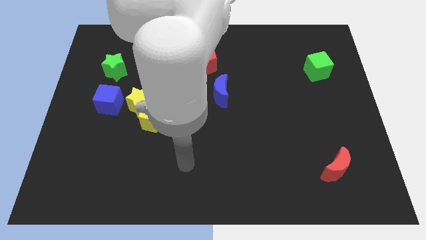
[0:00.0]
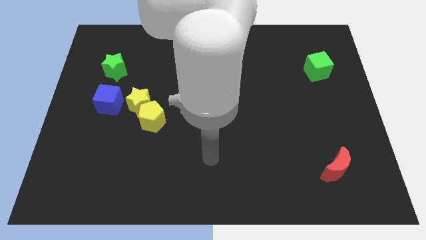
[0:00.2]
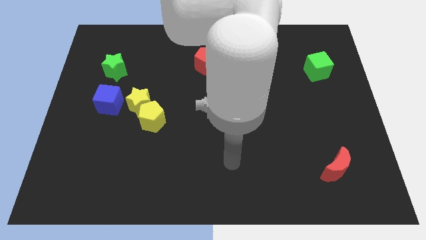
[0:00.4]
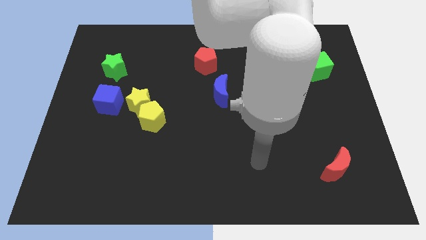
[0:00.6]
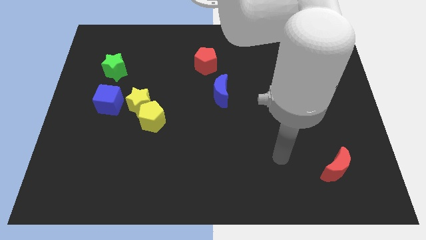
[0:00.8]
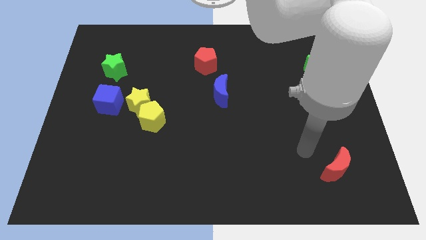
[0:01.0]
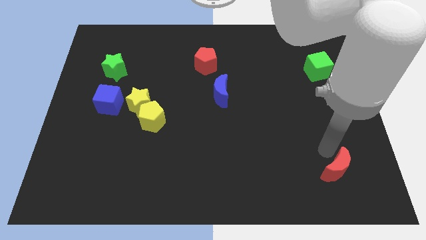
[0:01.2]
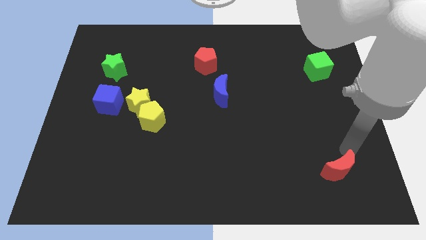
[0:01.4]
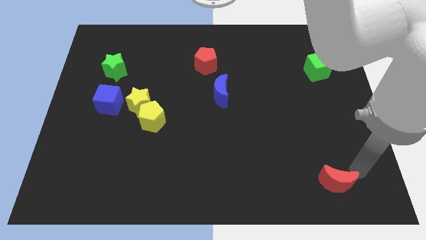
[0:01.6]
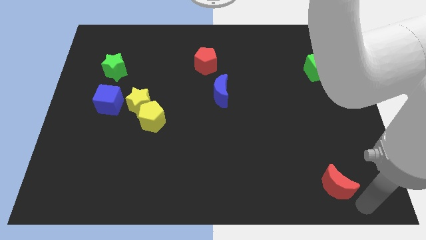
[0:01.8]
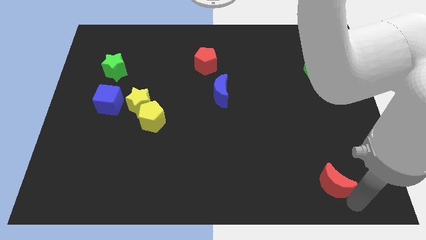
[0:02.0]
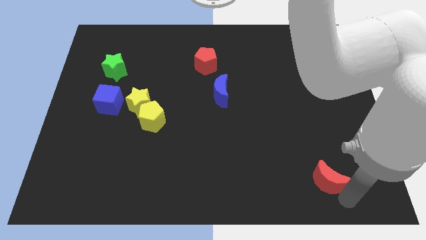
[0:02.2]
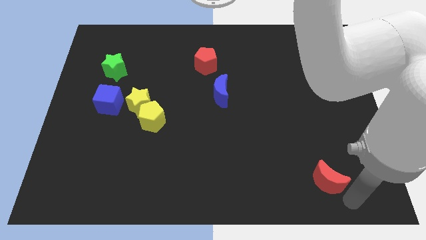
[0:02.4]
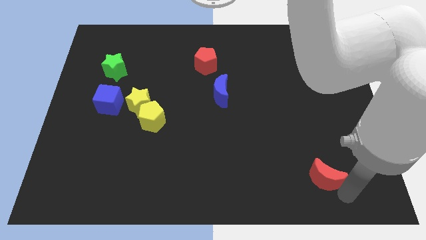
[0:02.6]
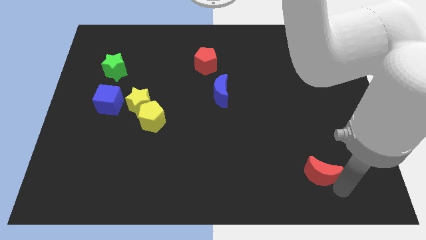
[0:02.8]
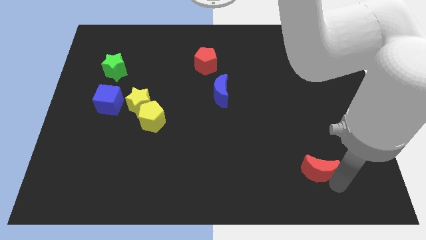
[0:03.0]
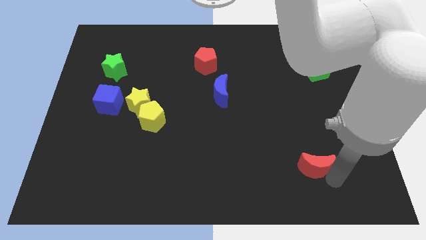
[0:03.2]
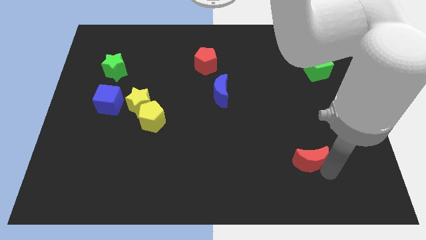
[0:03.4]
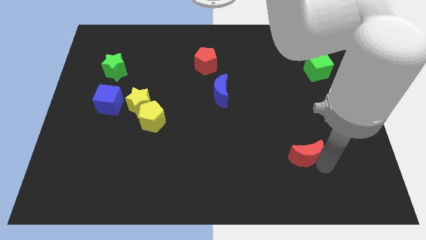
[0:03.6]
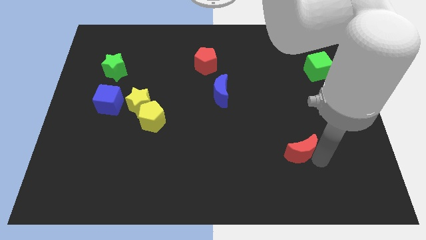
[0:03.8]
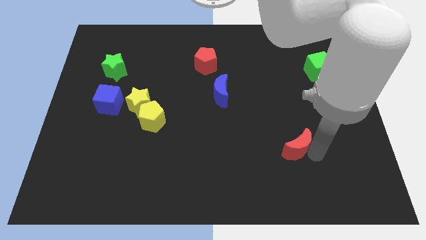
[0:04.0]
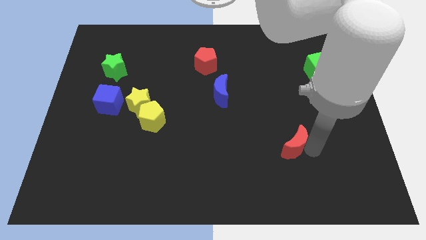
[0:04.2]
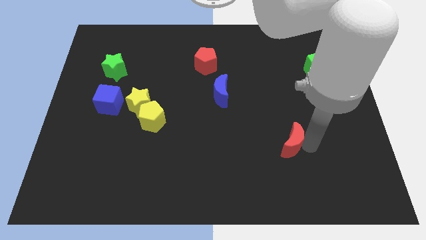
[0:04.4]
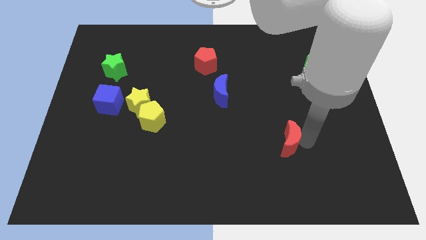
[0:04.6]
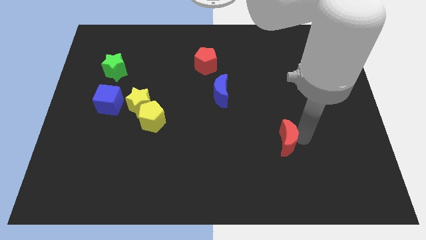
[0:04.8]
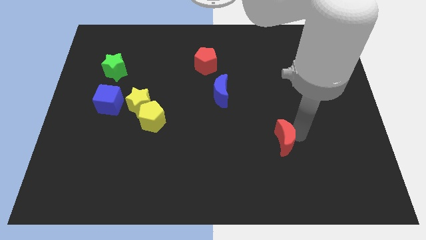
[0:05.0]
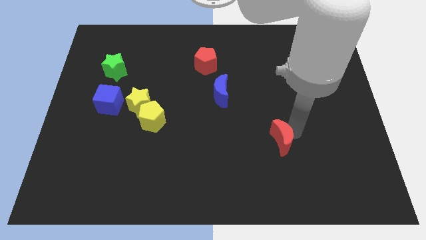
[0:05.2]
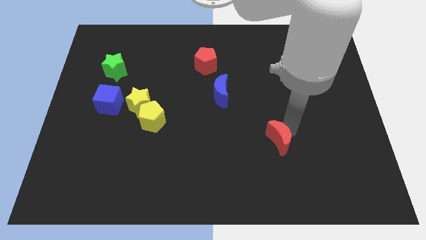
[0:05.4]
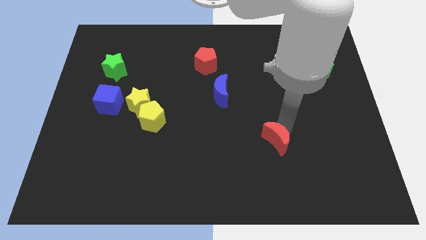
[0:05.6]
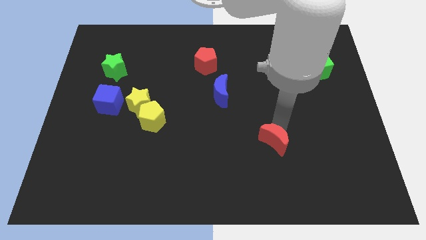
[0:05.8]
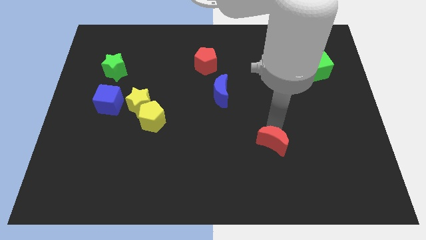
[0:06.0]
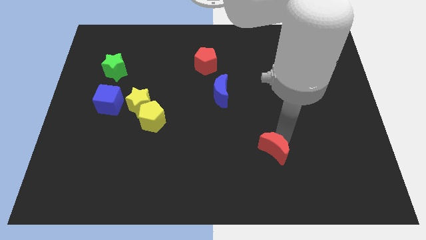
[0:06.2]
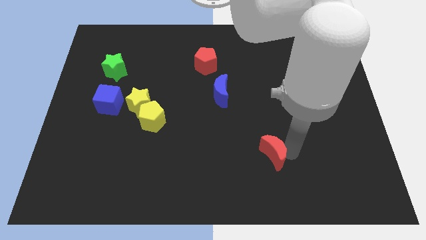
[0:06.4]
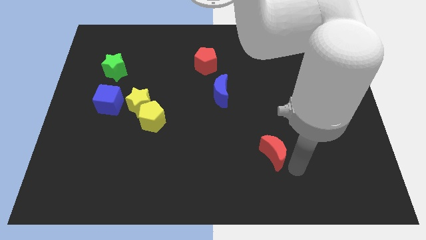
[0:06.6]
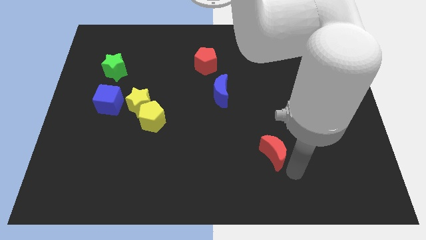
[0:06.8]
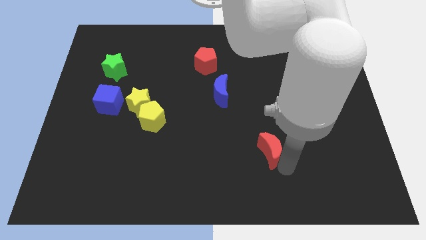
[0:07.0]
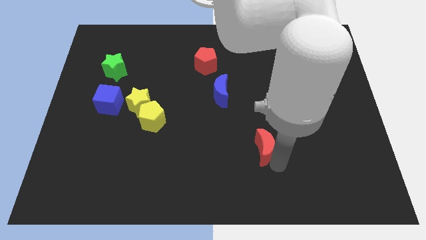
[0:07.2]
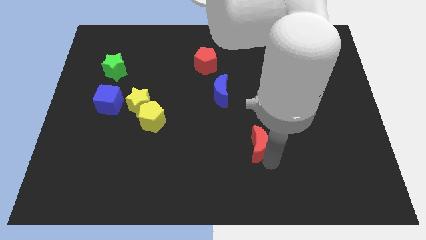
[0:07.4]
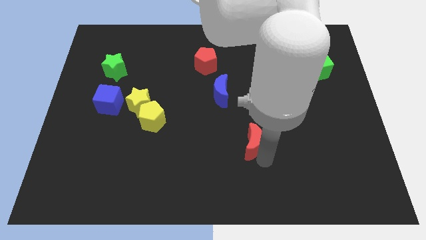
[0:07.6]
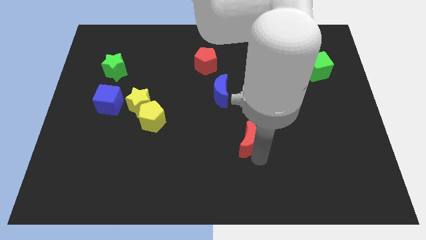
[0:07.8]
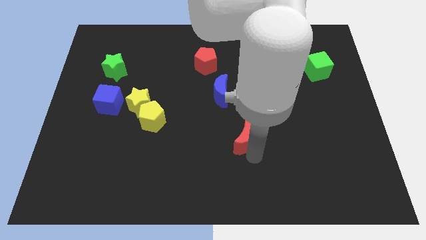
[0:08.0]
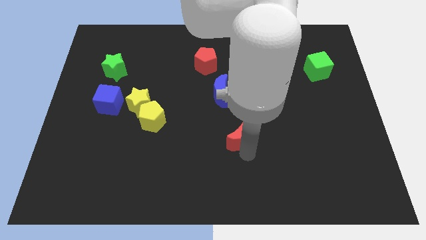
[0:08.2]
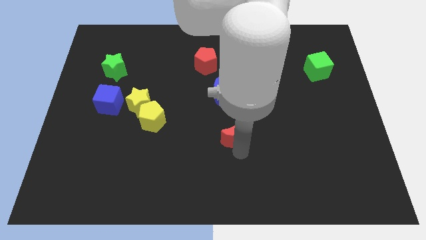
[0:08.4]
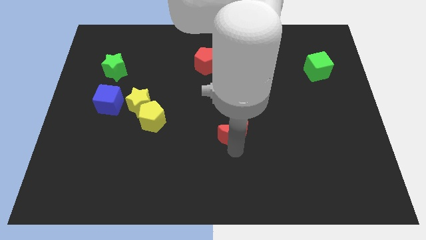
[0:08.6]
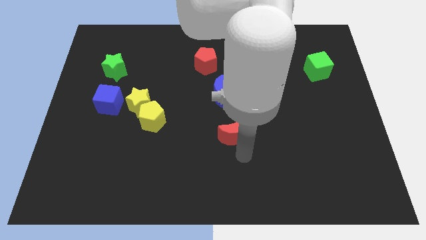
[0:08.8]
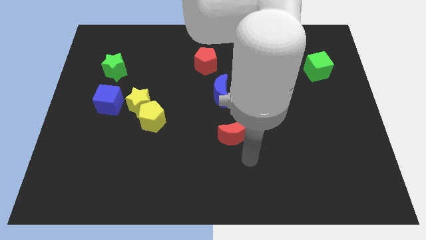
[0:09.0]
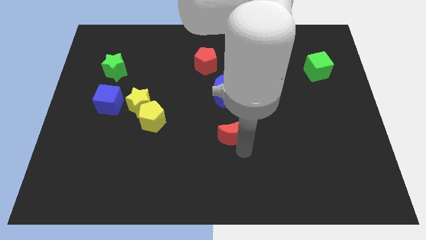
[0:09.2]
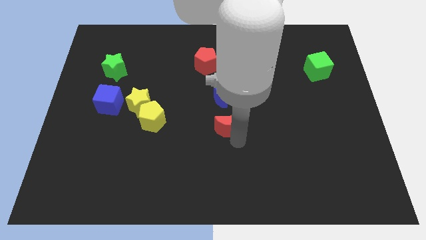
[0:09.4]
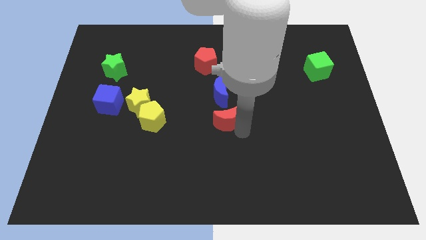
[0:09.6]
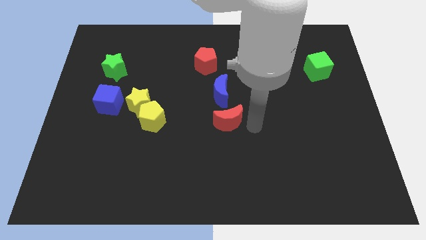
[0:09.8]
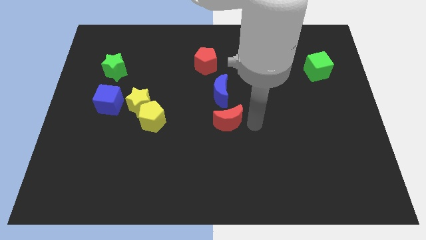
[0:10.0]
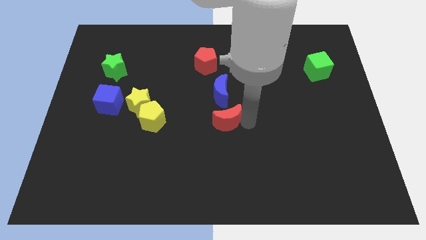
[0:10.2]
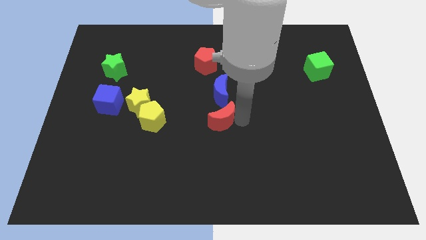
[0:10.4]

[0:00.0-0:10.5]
put the red moon just right of the yellow pentagon
